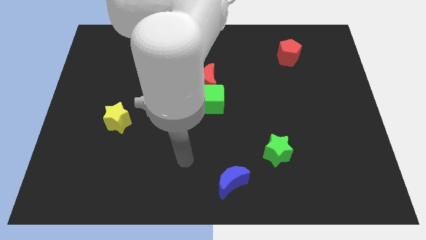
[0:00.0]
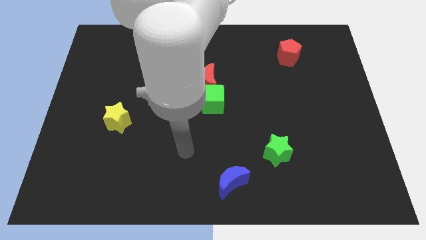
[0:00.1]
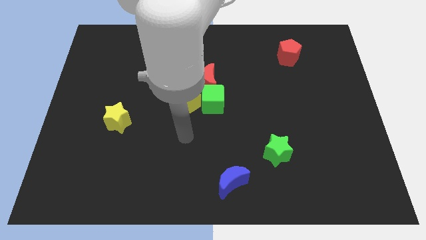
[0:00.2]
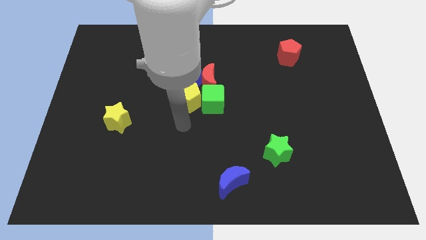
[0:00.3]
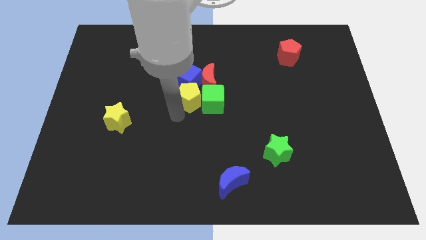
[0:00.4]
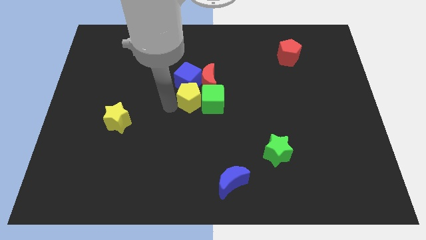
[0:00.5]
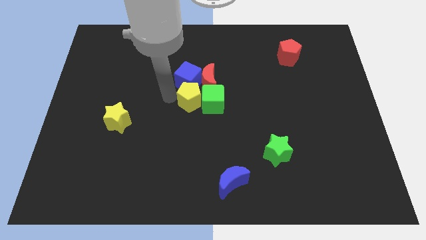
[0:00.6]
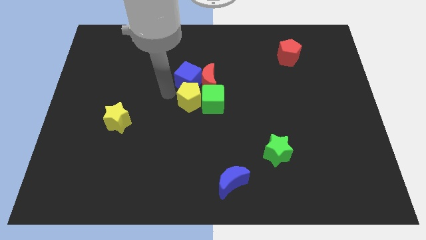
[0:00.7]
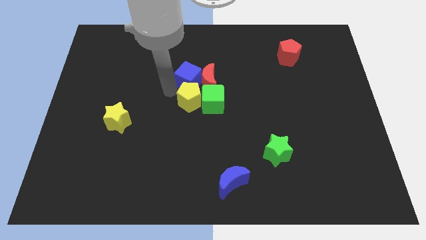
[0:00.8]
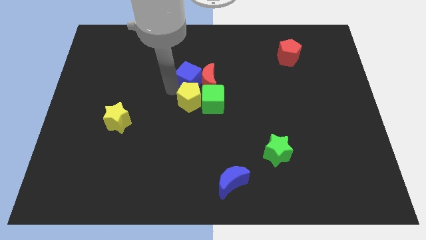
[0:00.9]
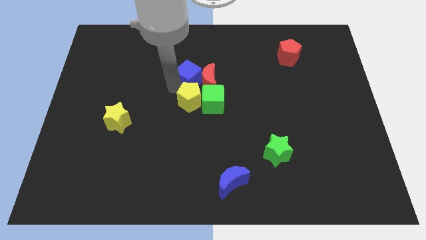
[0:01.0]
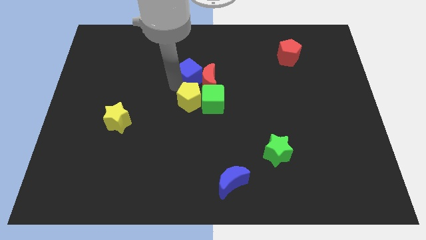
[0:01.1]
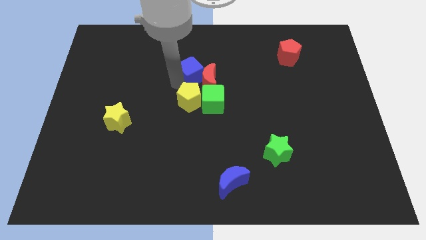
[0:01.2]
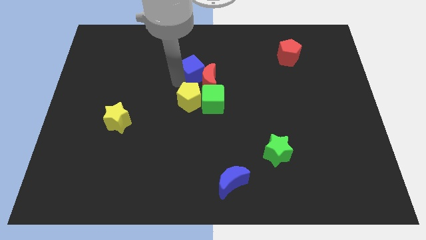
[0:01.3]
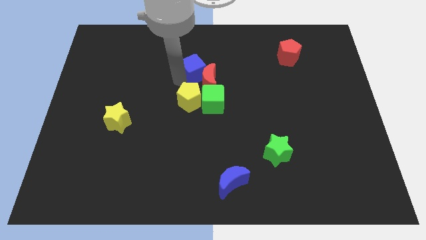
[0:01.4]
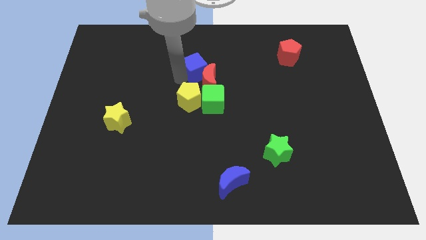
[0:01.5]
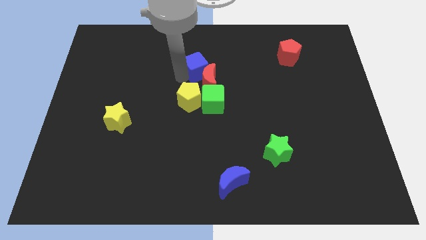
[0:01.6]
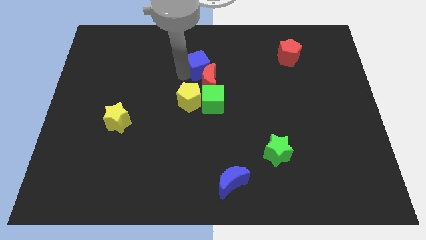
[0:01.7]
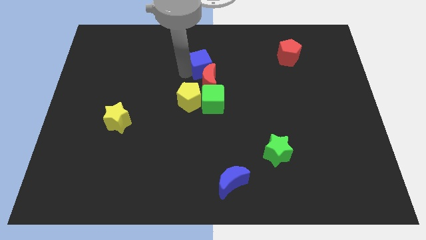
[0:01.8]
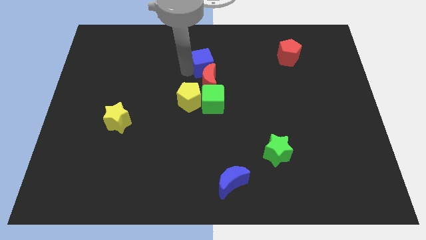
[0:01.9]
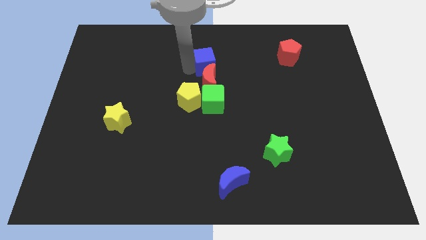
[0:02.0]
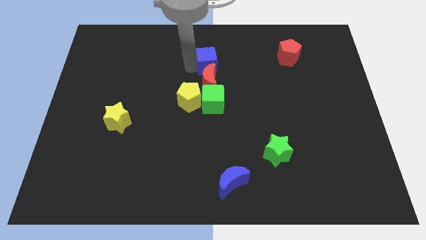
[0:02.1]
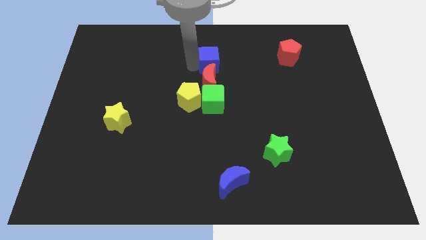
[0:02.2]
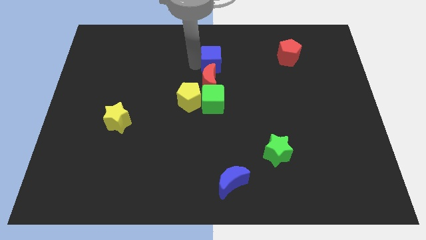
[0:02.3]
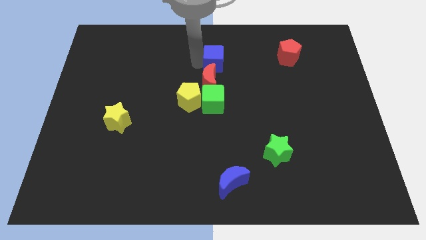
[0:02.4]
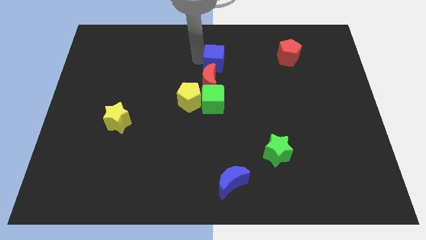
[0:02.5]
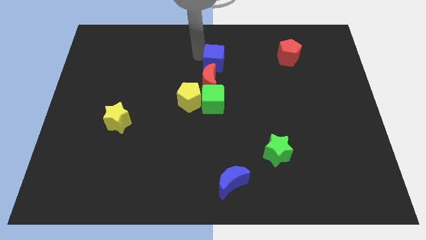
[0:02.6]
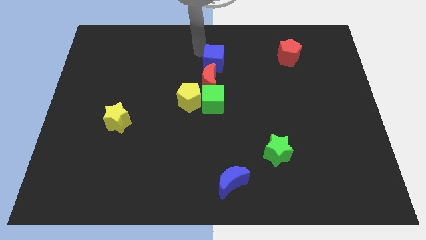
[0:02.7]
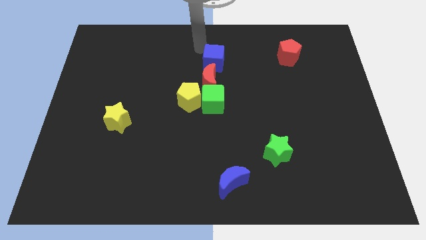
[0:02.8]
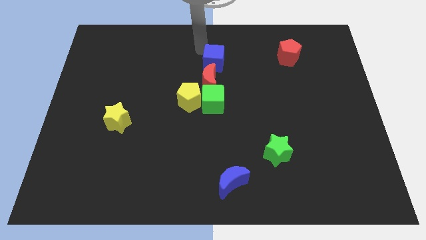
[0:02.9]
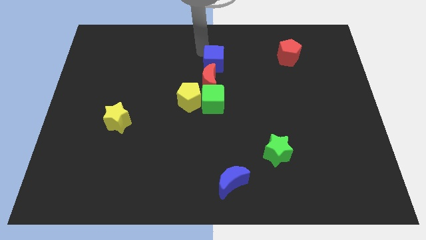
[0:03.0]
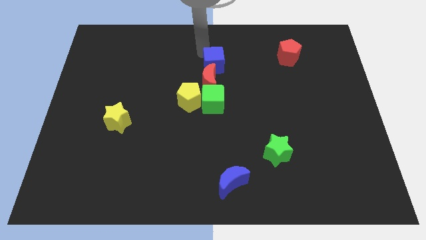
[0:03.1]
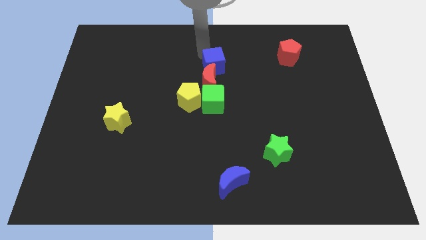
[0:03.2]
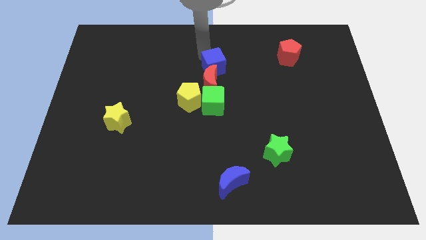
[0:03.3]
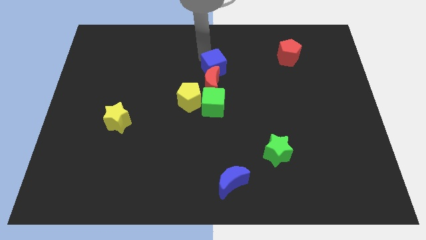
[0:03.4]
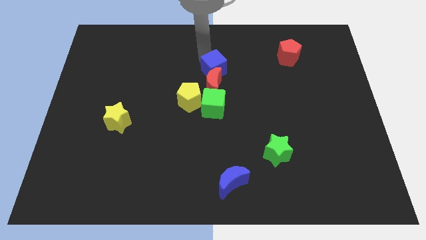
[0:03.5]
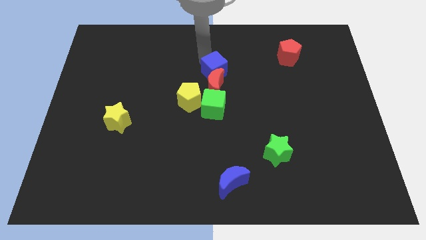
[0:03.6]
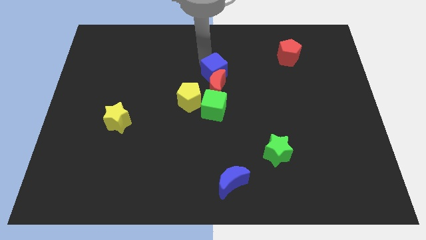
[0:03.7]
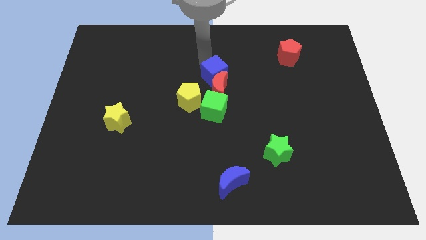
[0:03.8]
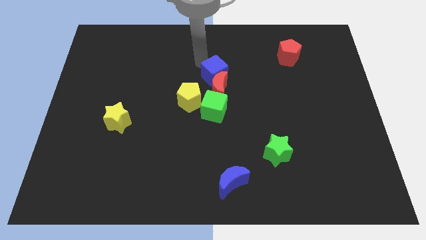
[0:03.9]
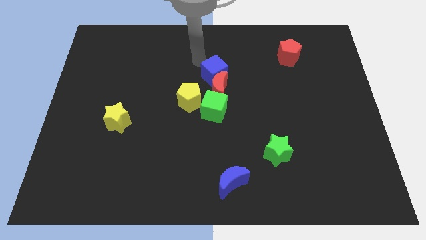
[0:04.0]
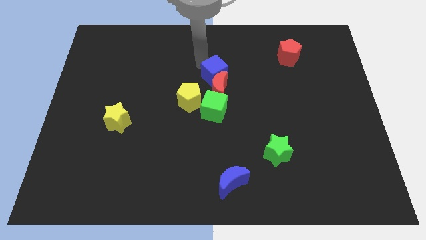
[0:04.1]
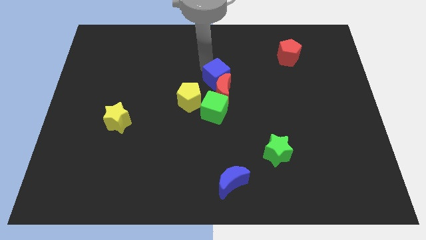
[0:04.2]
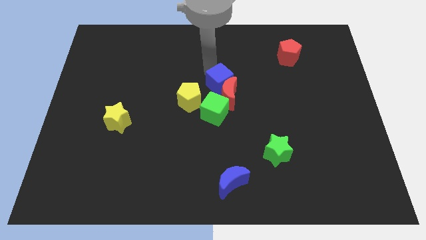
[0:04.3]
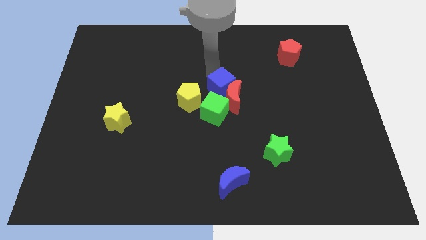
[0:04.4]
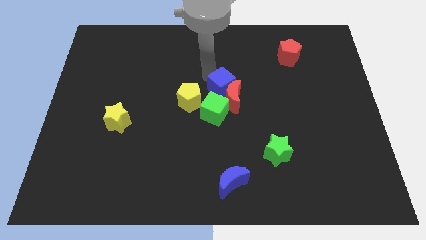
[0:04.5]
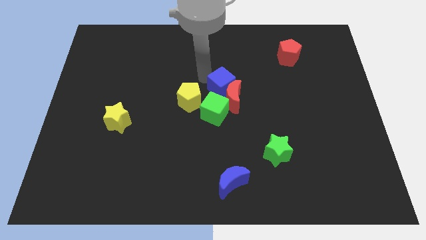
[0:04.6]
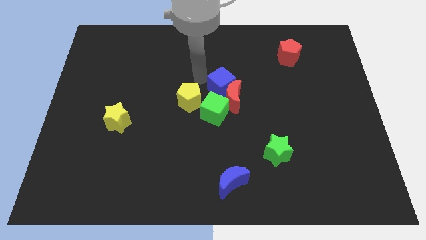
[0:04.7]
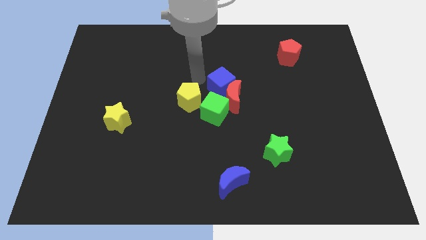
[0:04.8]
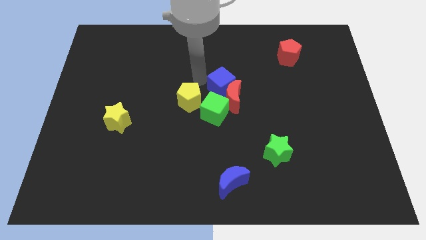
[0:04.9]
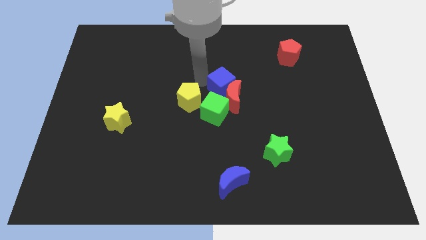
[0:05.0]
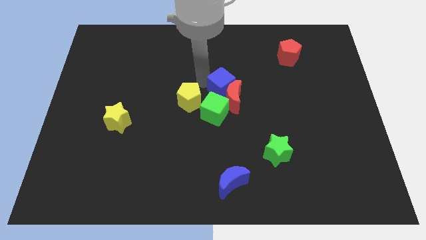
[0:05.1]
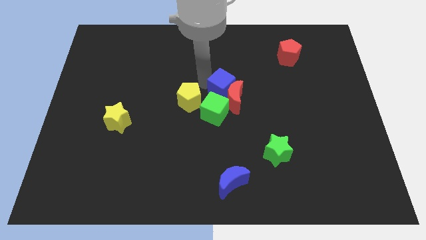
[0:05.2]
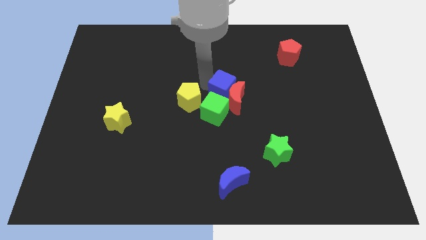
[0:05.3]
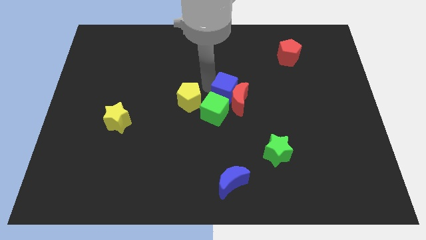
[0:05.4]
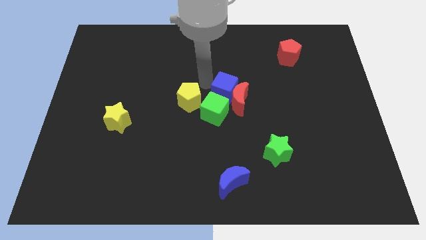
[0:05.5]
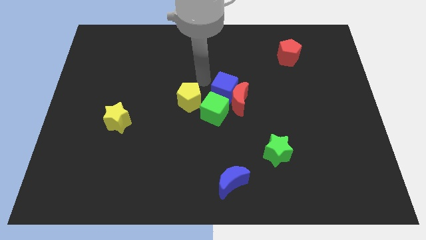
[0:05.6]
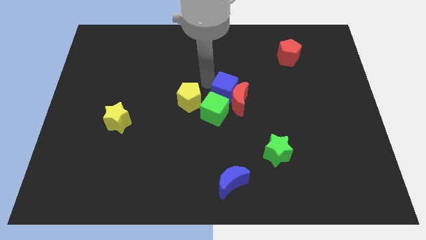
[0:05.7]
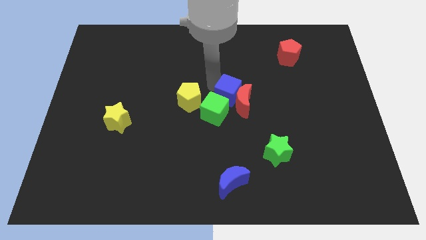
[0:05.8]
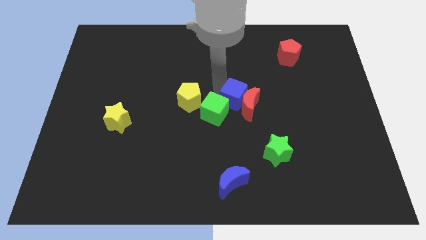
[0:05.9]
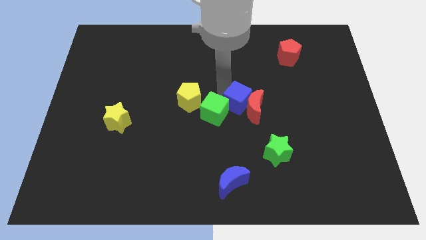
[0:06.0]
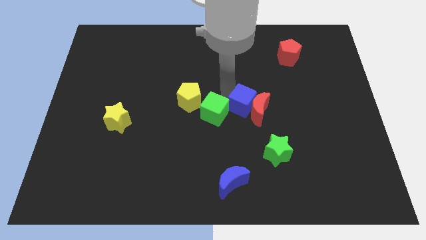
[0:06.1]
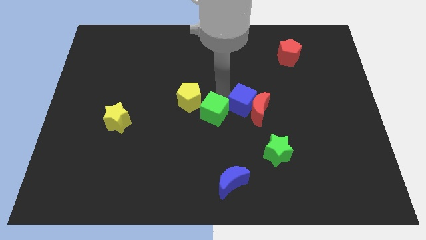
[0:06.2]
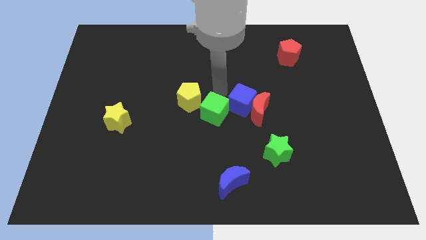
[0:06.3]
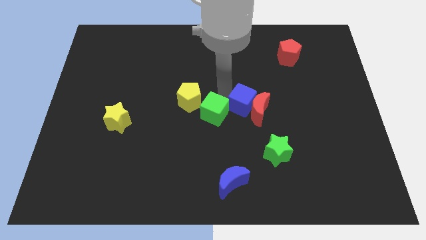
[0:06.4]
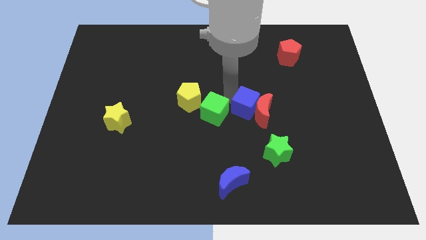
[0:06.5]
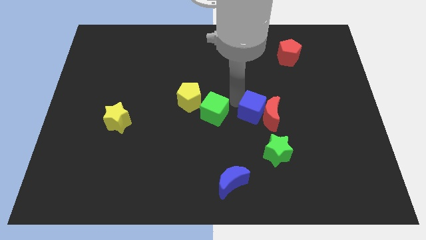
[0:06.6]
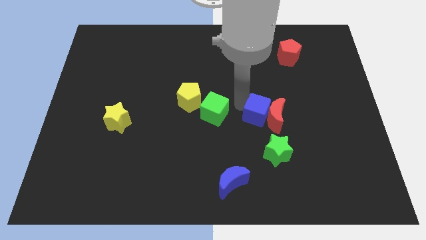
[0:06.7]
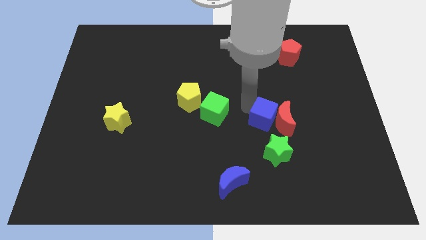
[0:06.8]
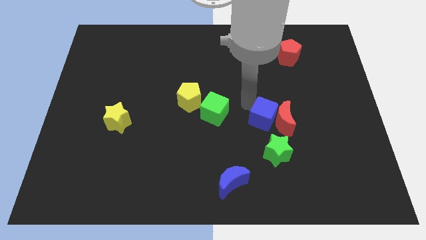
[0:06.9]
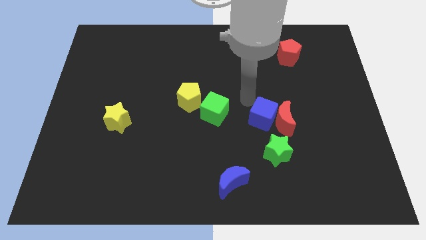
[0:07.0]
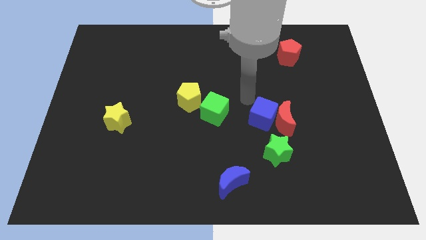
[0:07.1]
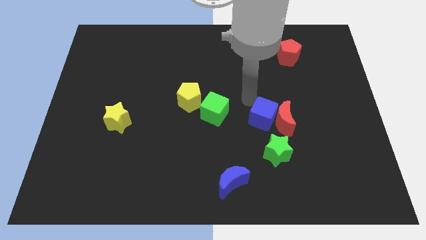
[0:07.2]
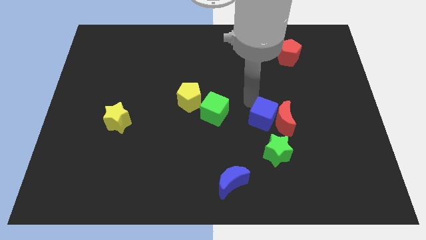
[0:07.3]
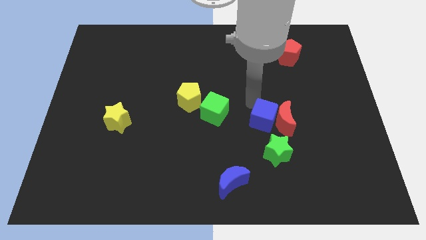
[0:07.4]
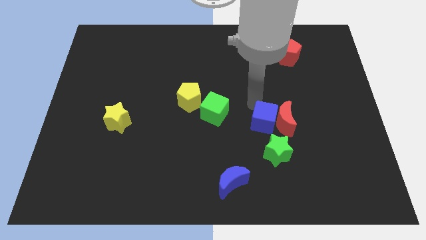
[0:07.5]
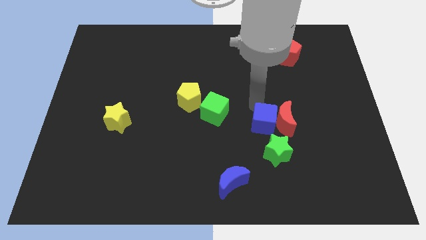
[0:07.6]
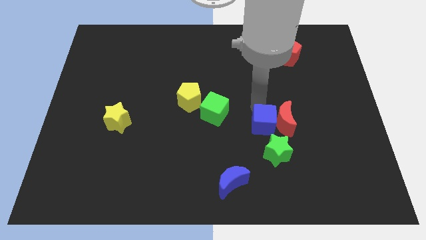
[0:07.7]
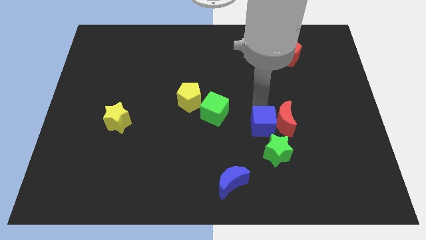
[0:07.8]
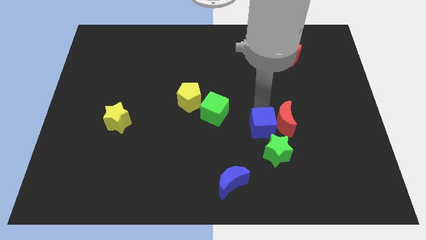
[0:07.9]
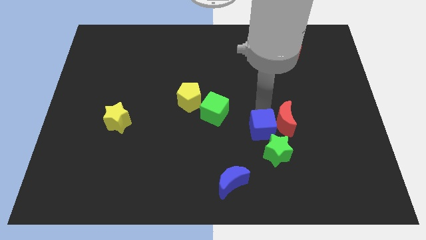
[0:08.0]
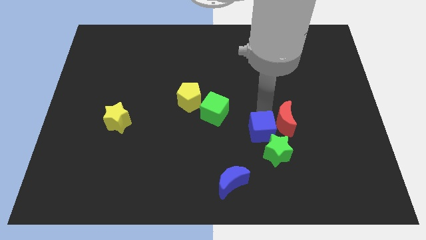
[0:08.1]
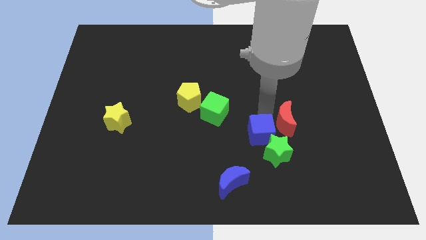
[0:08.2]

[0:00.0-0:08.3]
slide the blue cube next to the green star
